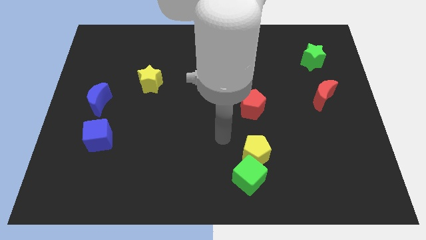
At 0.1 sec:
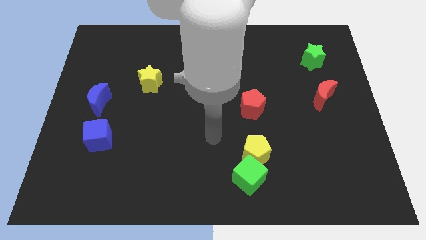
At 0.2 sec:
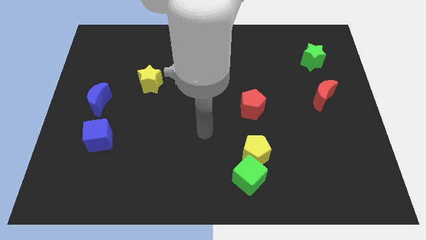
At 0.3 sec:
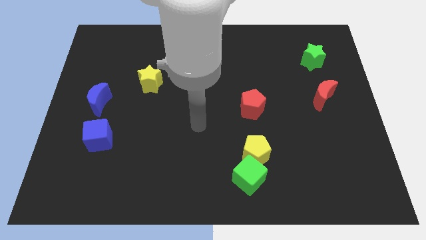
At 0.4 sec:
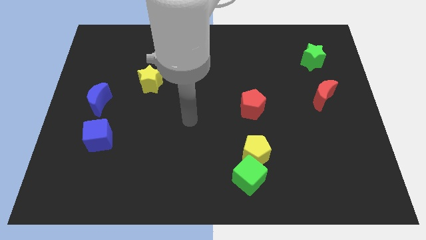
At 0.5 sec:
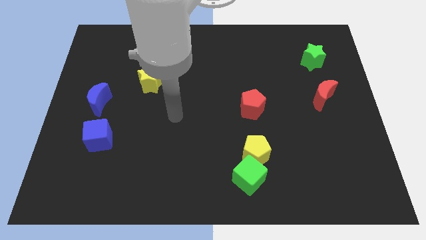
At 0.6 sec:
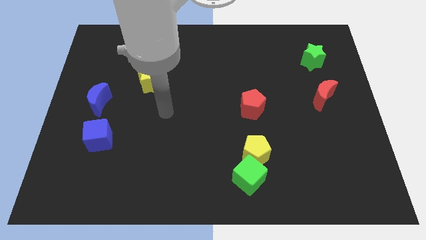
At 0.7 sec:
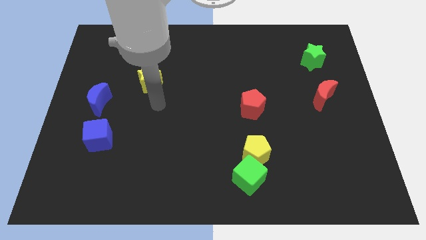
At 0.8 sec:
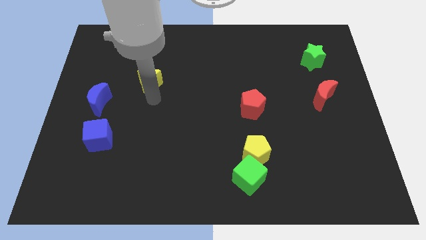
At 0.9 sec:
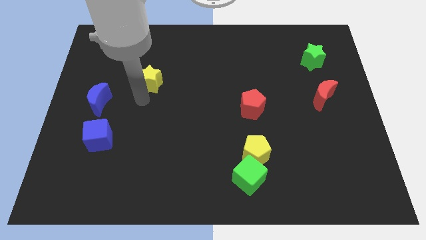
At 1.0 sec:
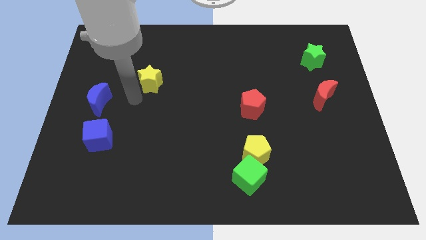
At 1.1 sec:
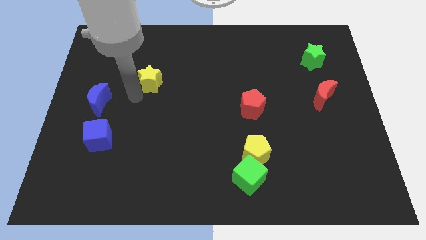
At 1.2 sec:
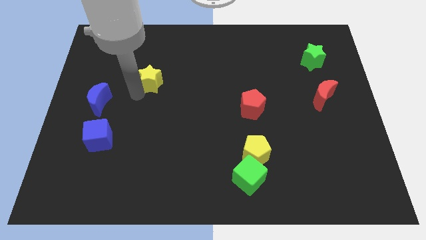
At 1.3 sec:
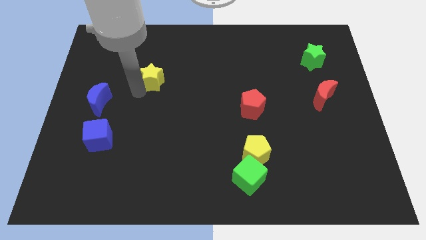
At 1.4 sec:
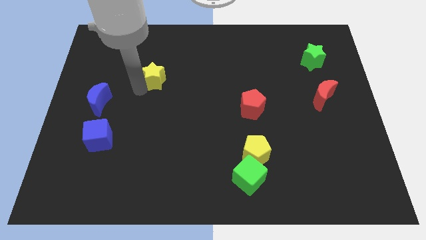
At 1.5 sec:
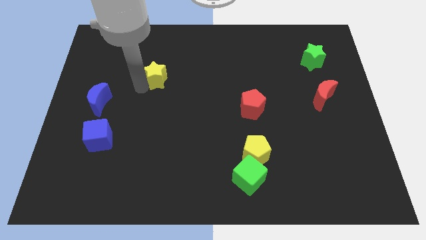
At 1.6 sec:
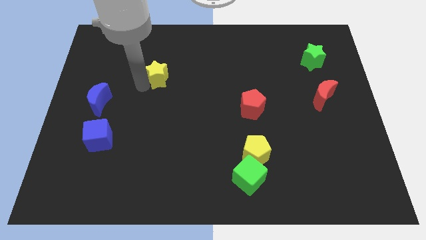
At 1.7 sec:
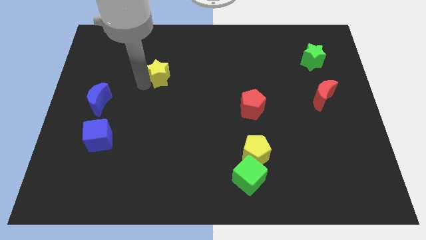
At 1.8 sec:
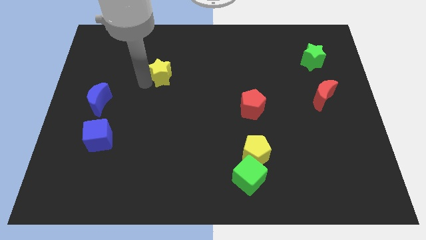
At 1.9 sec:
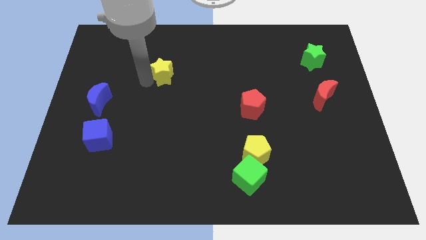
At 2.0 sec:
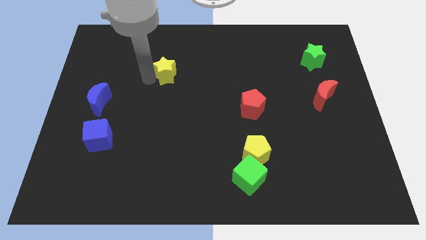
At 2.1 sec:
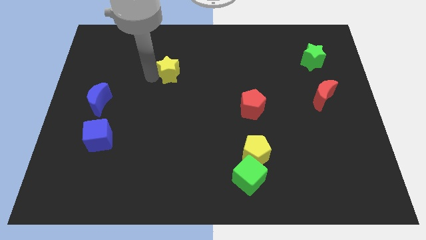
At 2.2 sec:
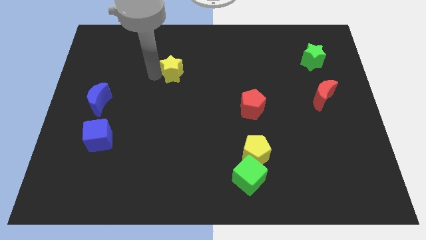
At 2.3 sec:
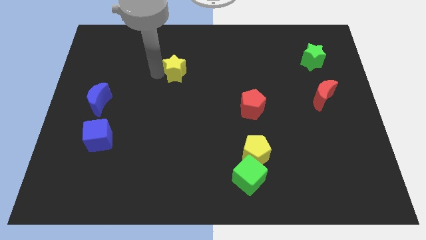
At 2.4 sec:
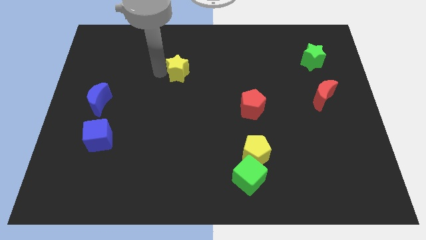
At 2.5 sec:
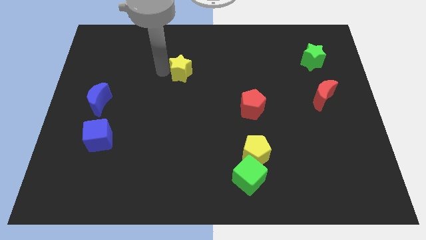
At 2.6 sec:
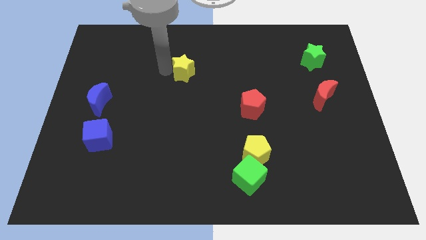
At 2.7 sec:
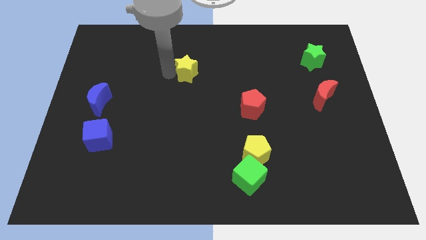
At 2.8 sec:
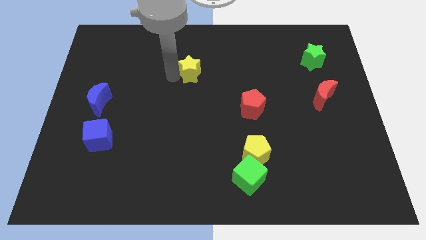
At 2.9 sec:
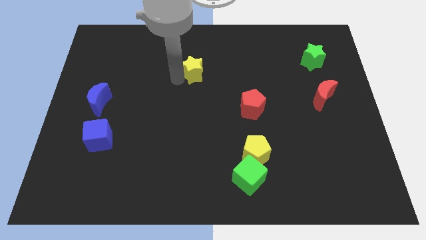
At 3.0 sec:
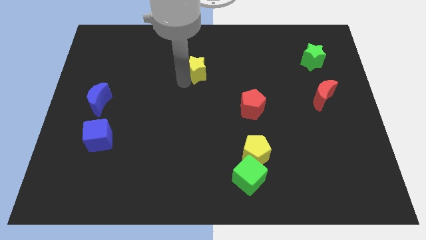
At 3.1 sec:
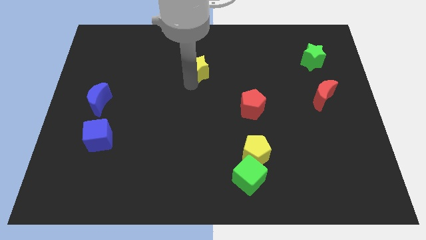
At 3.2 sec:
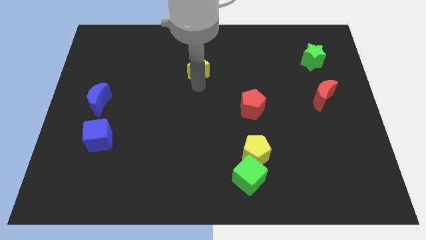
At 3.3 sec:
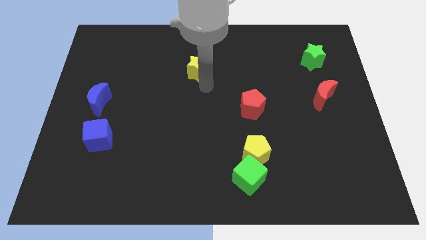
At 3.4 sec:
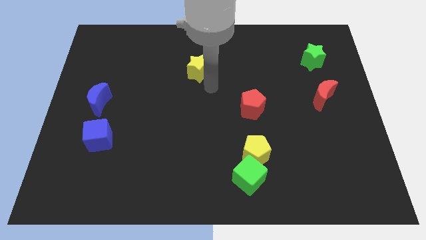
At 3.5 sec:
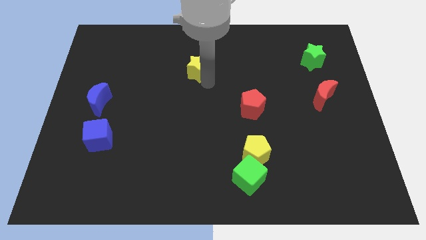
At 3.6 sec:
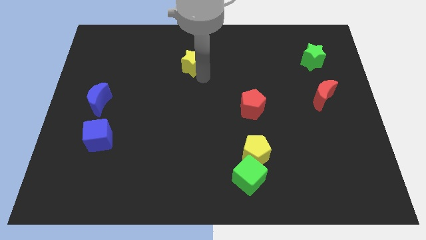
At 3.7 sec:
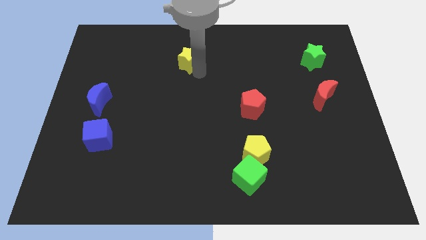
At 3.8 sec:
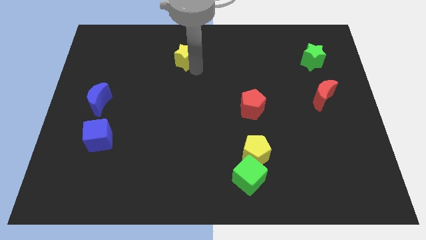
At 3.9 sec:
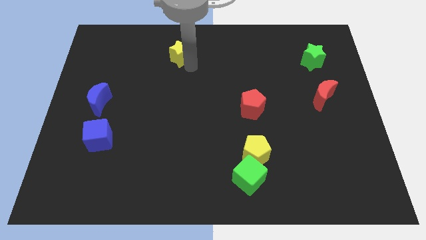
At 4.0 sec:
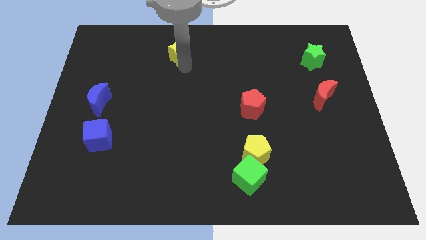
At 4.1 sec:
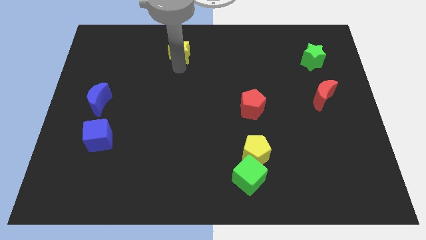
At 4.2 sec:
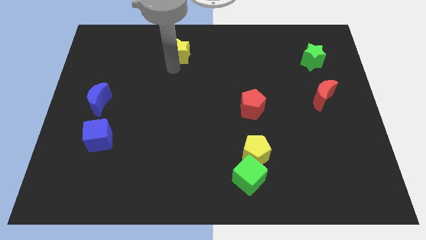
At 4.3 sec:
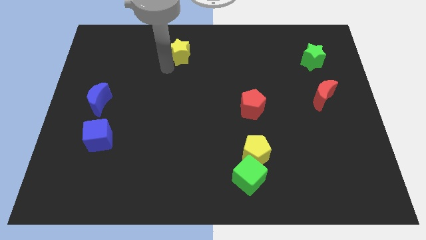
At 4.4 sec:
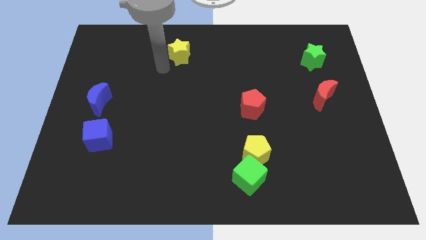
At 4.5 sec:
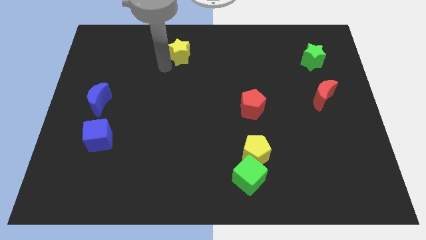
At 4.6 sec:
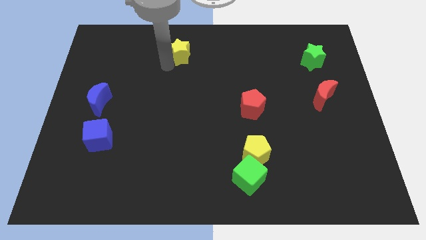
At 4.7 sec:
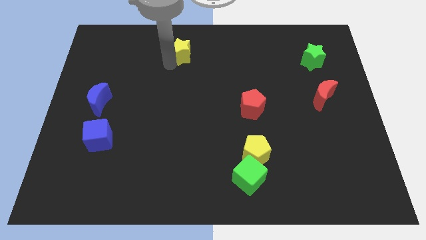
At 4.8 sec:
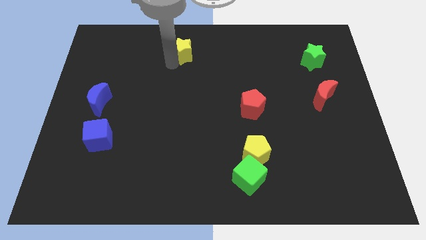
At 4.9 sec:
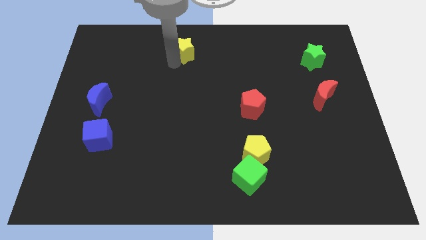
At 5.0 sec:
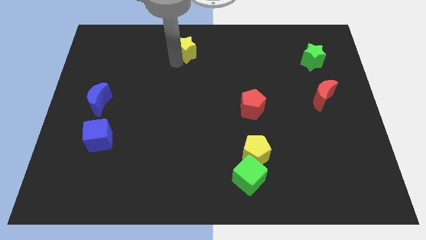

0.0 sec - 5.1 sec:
slide the yellow star to the top side

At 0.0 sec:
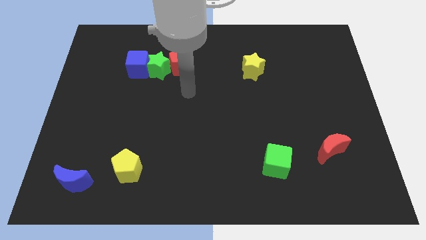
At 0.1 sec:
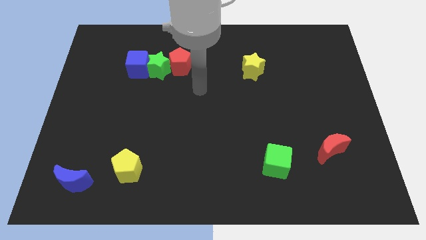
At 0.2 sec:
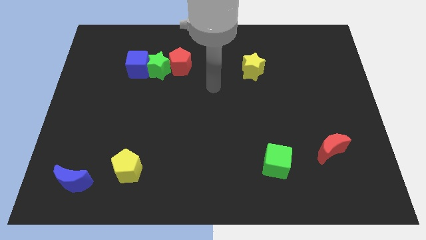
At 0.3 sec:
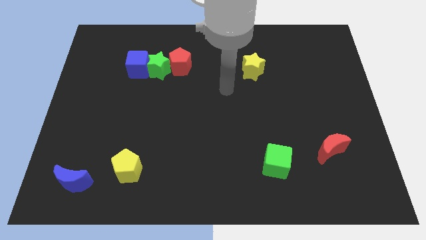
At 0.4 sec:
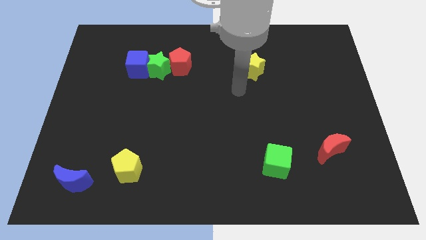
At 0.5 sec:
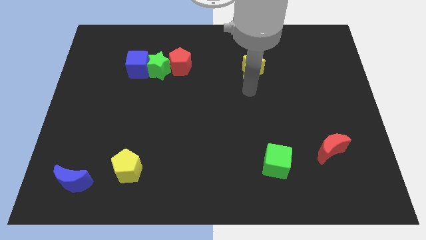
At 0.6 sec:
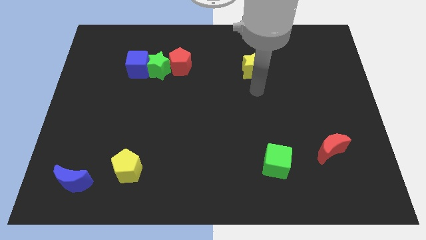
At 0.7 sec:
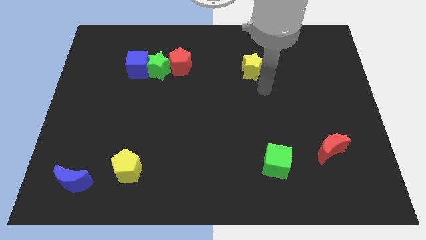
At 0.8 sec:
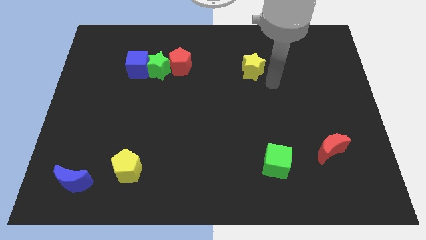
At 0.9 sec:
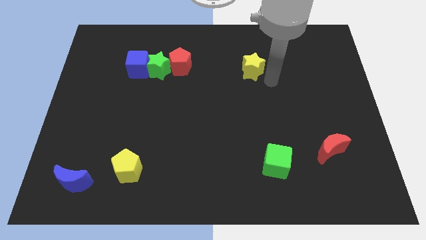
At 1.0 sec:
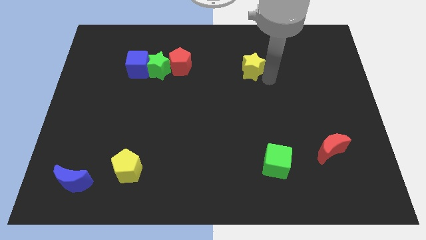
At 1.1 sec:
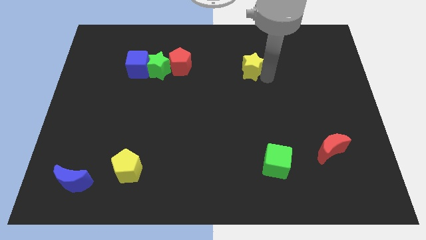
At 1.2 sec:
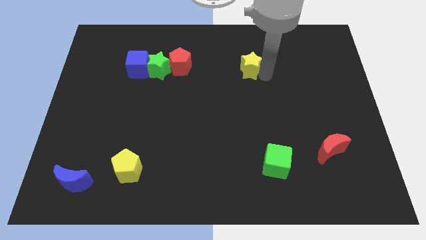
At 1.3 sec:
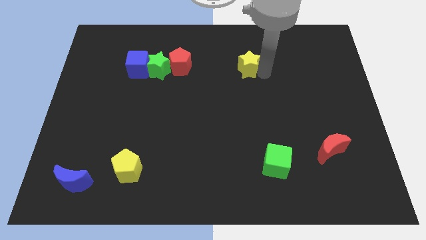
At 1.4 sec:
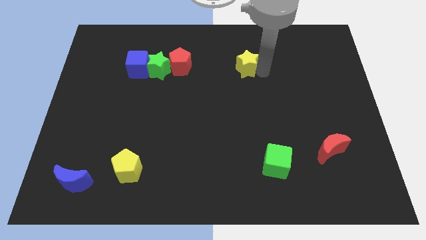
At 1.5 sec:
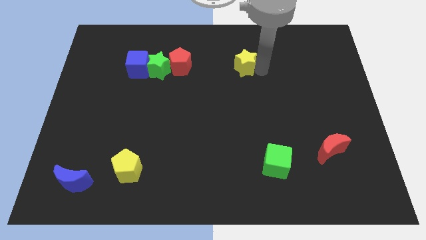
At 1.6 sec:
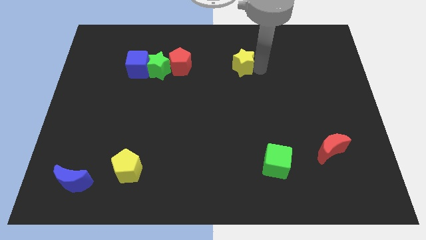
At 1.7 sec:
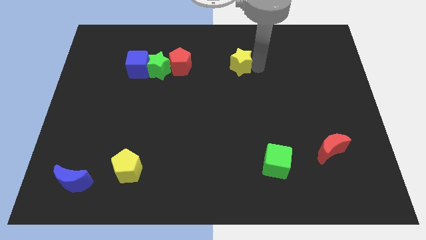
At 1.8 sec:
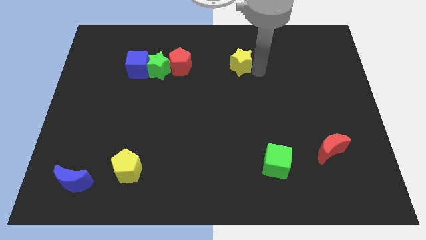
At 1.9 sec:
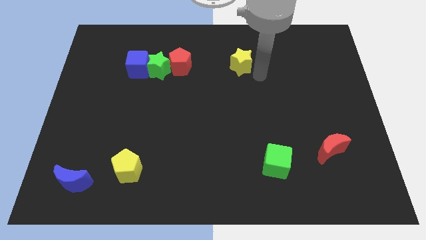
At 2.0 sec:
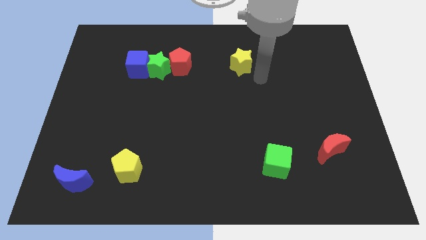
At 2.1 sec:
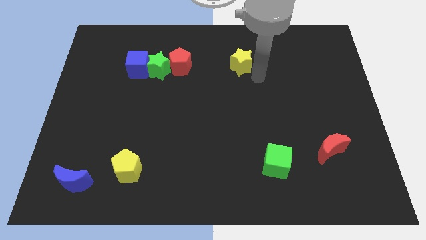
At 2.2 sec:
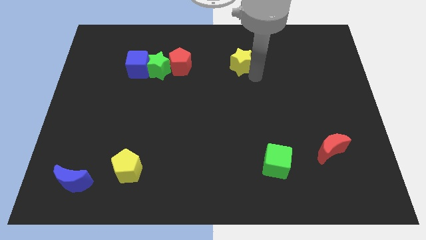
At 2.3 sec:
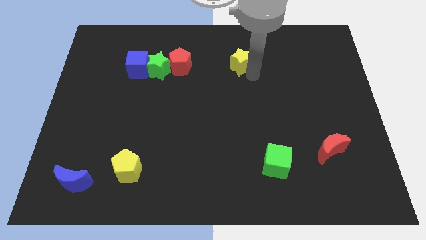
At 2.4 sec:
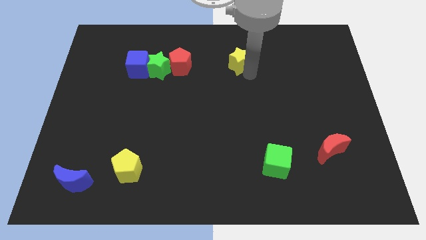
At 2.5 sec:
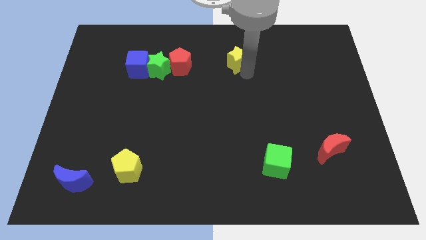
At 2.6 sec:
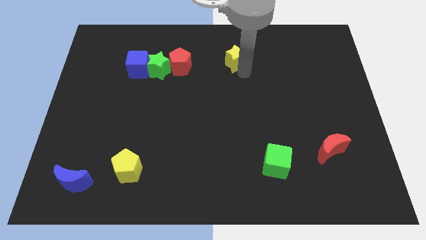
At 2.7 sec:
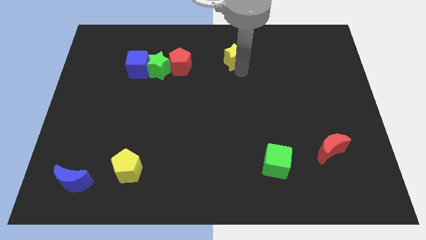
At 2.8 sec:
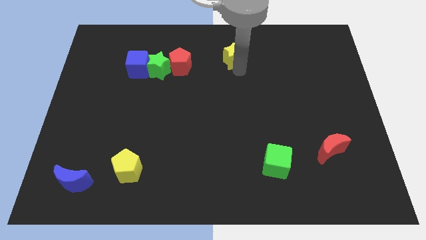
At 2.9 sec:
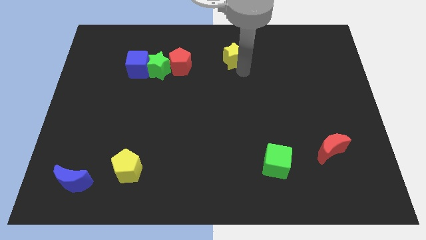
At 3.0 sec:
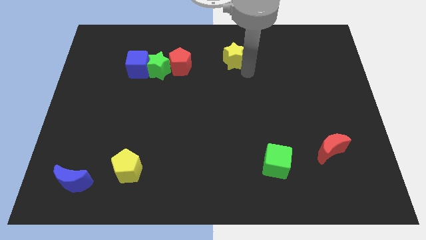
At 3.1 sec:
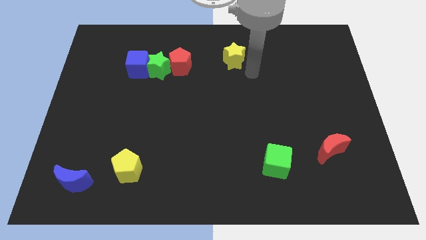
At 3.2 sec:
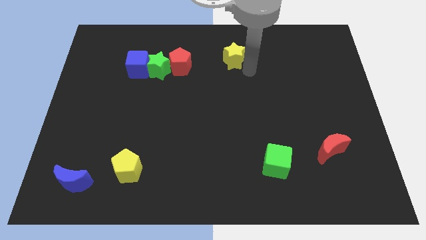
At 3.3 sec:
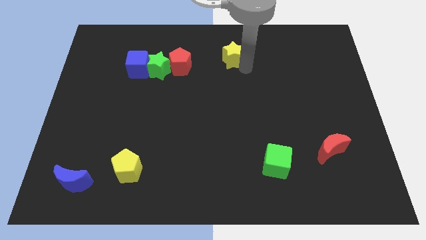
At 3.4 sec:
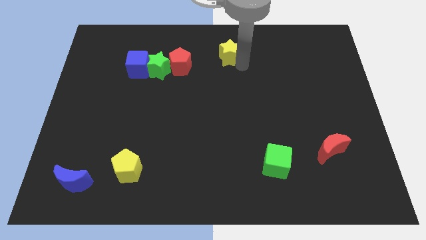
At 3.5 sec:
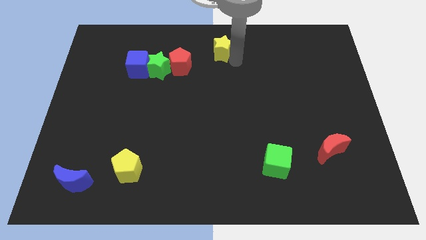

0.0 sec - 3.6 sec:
slide the yellow star to the towards your base
